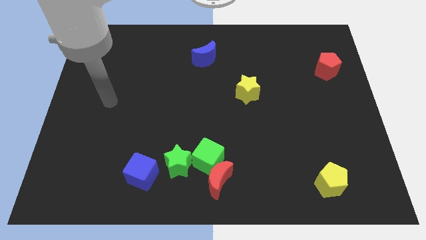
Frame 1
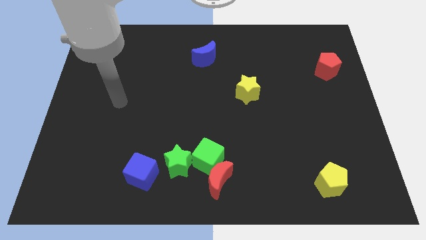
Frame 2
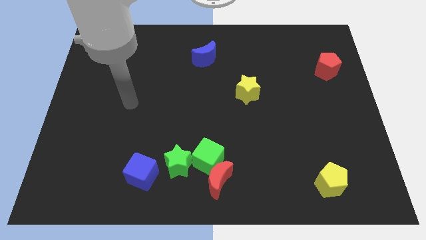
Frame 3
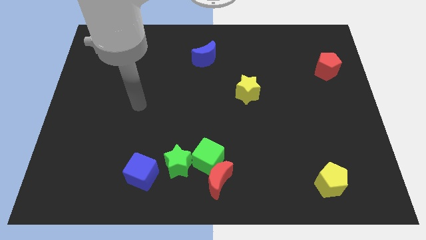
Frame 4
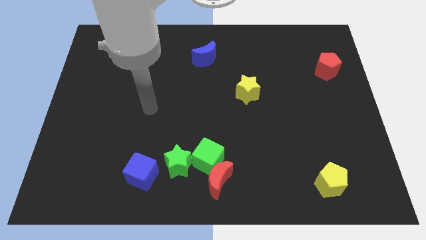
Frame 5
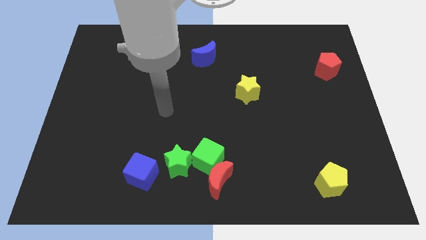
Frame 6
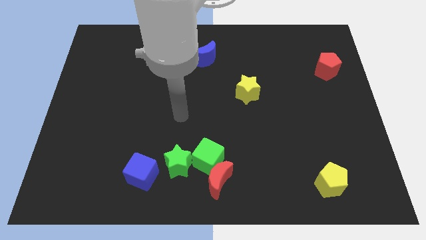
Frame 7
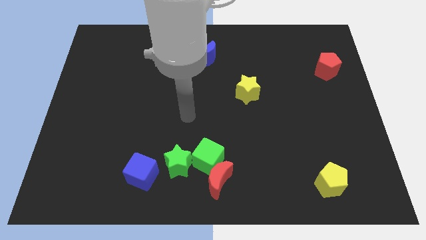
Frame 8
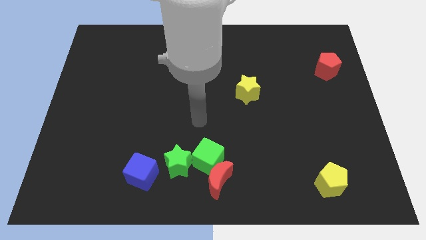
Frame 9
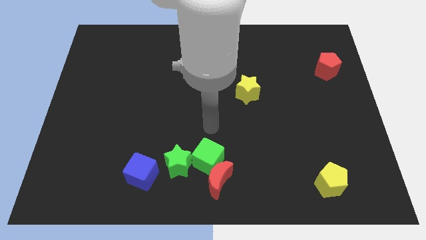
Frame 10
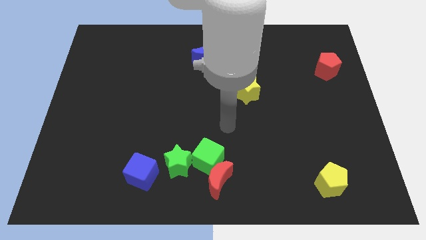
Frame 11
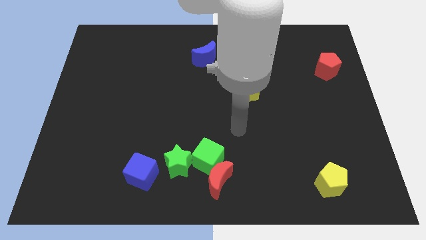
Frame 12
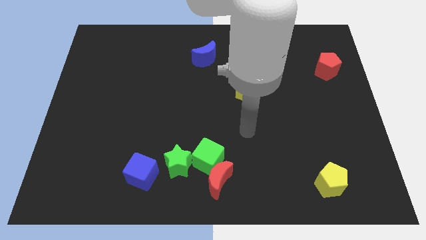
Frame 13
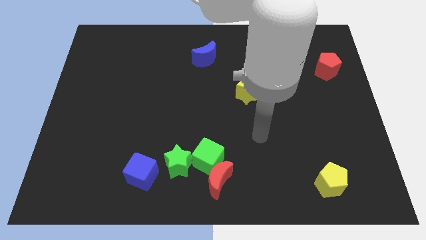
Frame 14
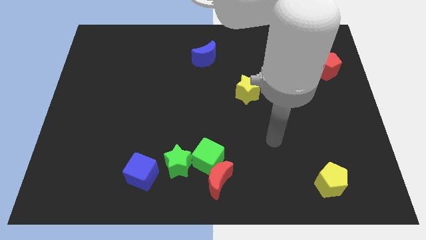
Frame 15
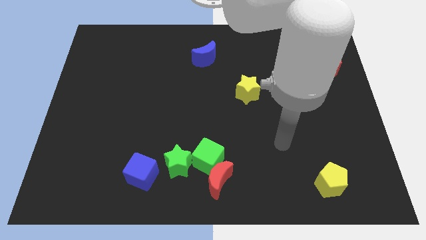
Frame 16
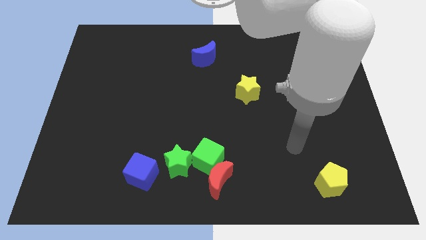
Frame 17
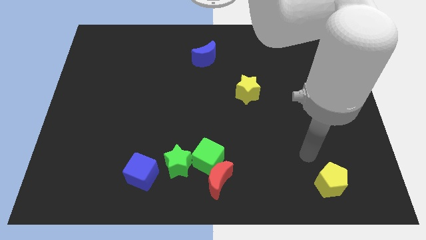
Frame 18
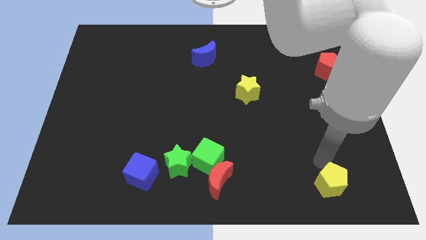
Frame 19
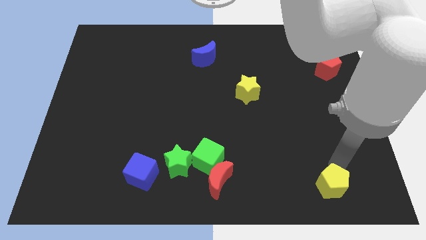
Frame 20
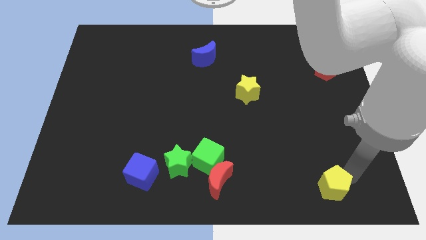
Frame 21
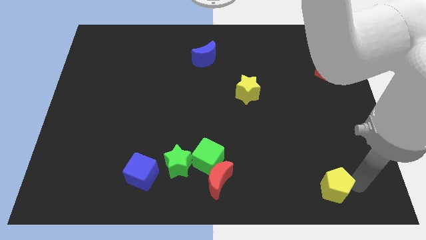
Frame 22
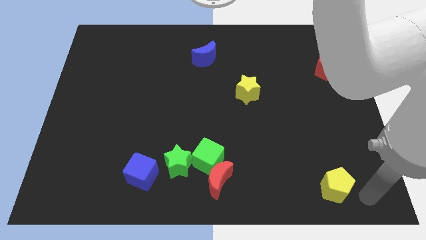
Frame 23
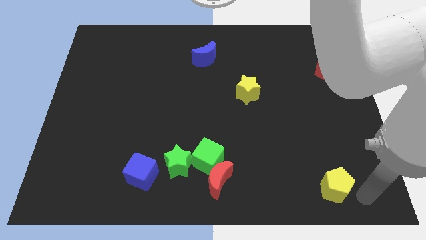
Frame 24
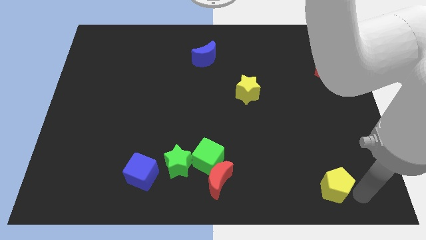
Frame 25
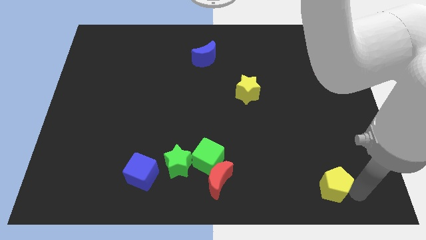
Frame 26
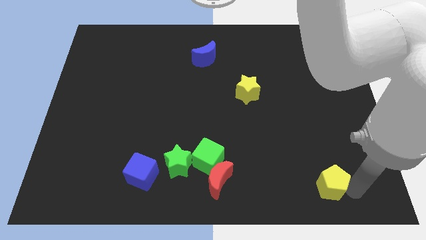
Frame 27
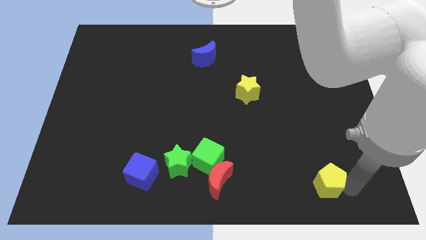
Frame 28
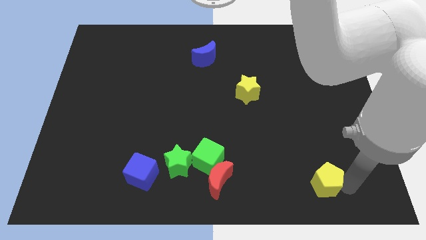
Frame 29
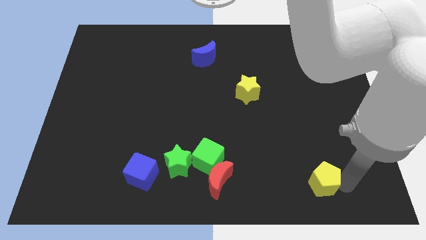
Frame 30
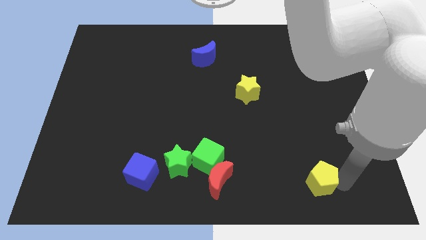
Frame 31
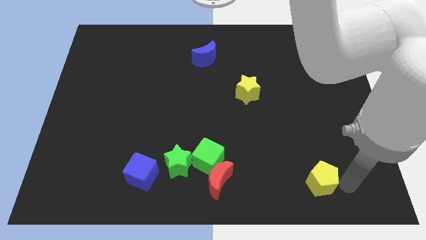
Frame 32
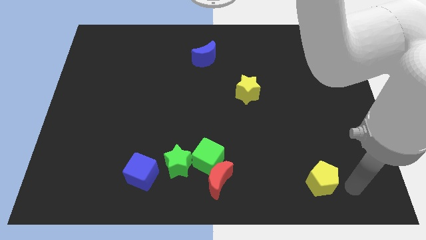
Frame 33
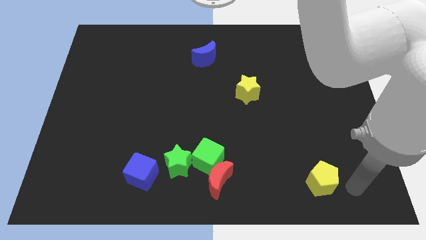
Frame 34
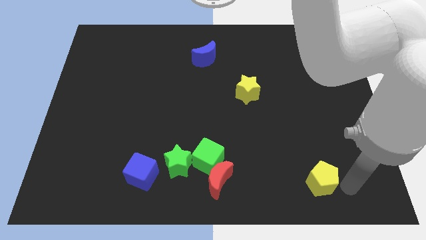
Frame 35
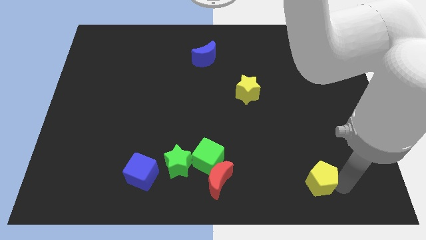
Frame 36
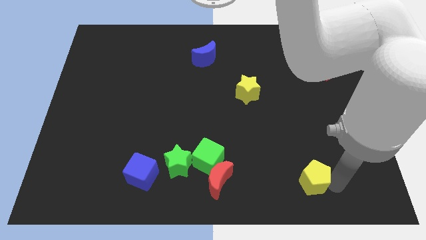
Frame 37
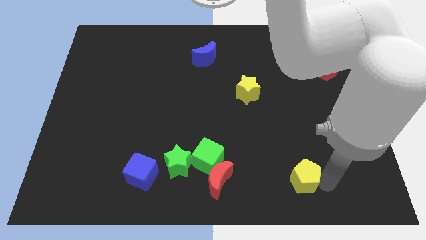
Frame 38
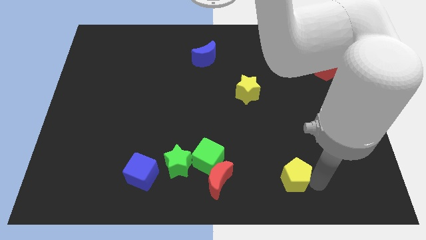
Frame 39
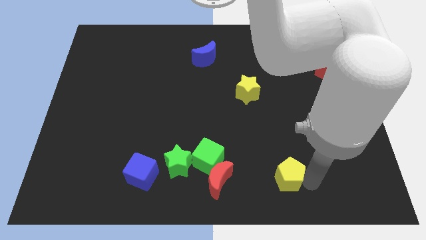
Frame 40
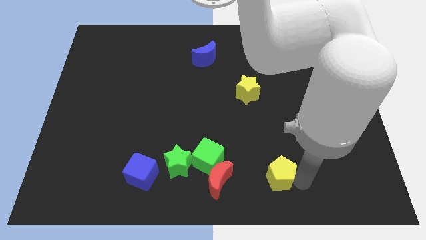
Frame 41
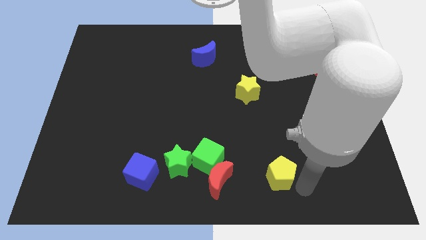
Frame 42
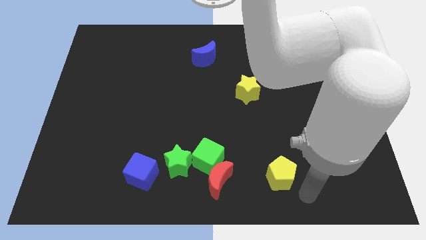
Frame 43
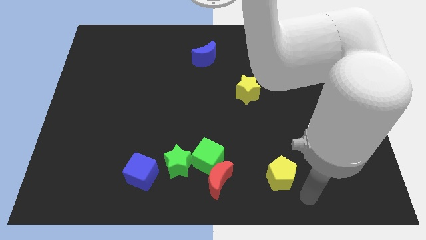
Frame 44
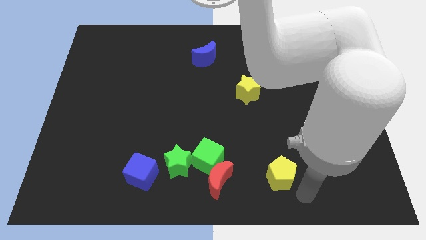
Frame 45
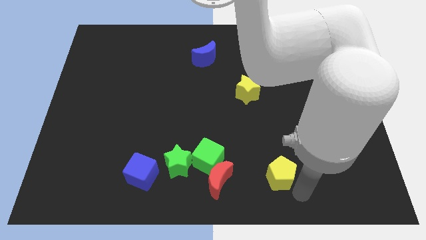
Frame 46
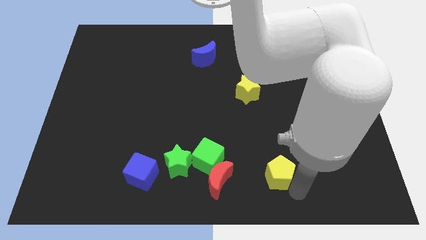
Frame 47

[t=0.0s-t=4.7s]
slide the yellow pentagon right of the green cube

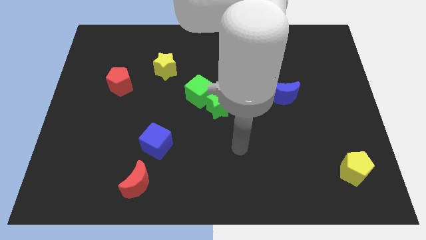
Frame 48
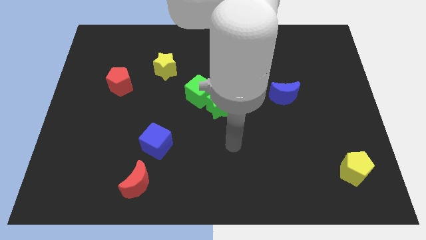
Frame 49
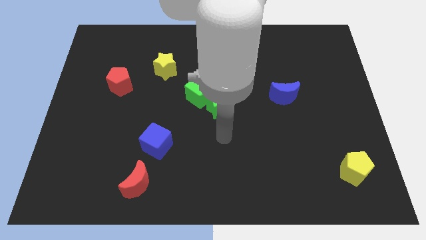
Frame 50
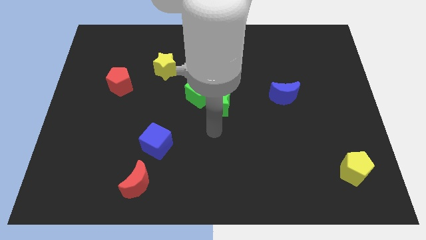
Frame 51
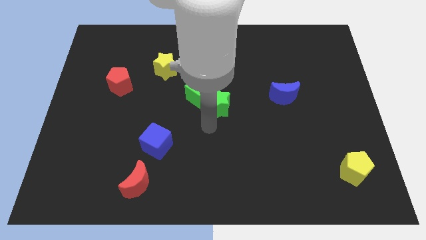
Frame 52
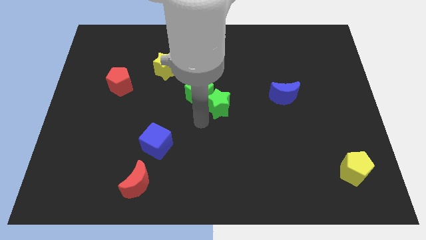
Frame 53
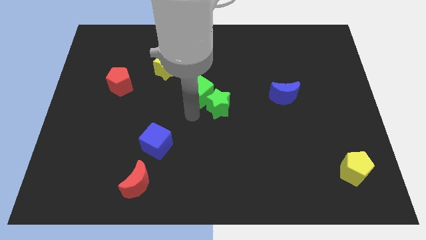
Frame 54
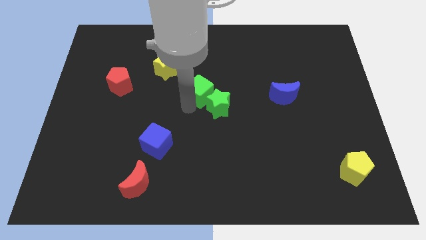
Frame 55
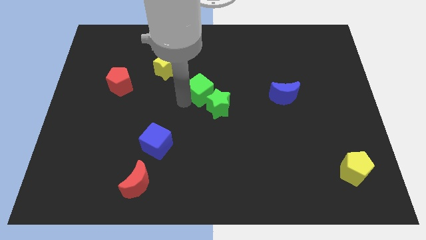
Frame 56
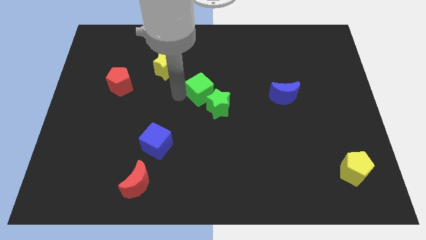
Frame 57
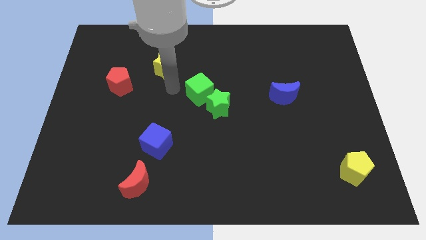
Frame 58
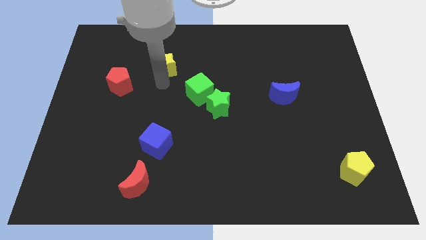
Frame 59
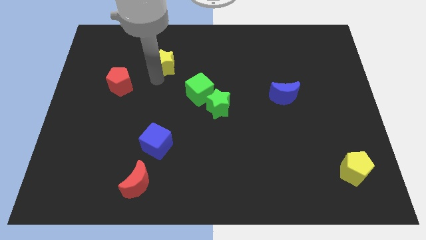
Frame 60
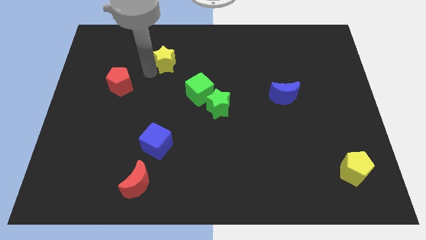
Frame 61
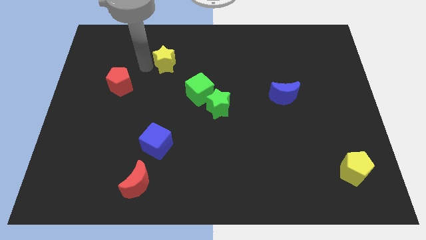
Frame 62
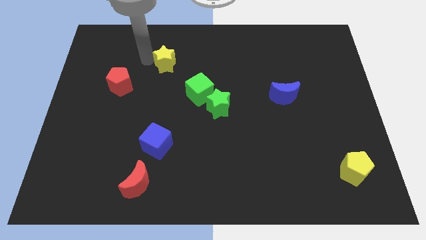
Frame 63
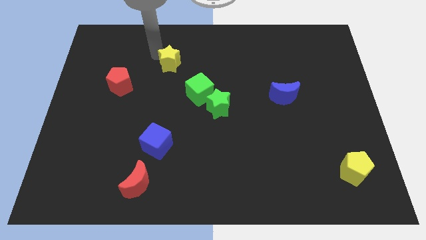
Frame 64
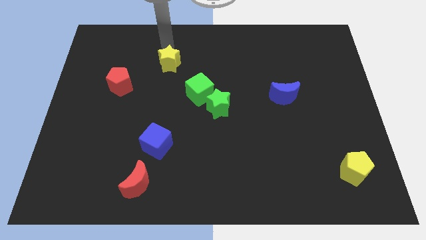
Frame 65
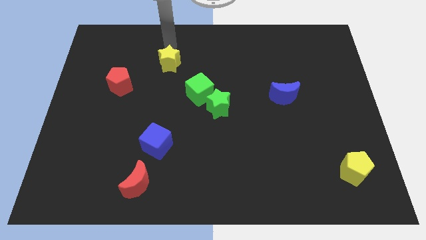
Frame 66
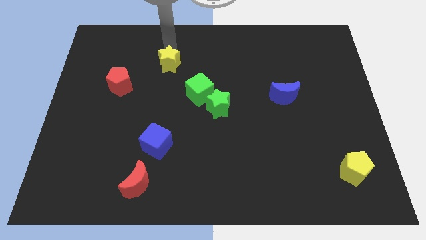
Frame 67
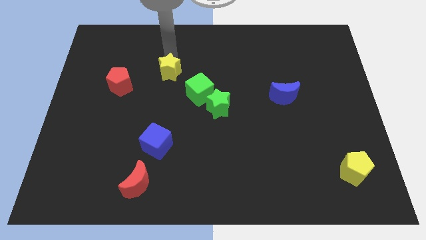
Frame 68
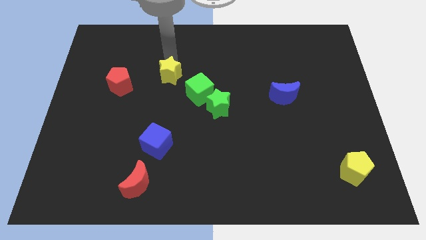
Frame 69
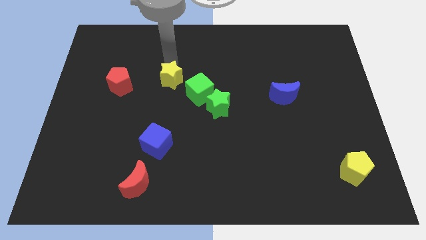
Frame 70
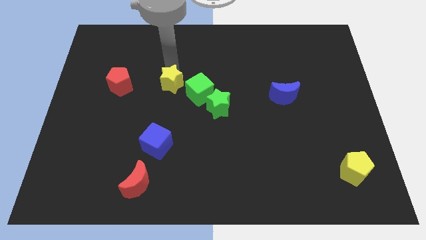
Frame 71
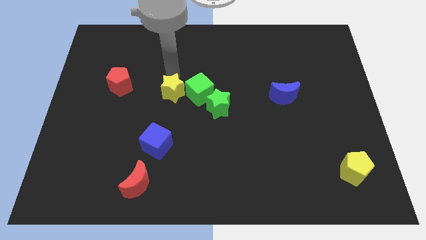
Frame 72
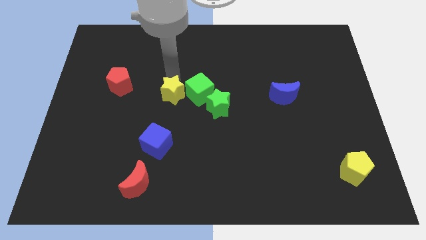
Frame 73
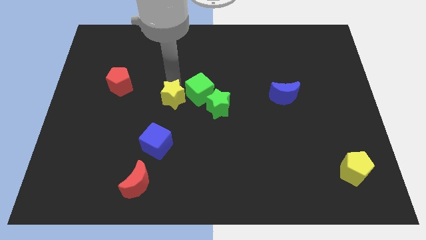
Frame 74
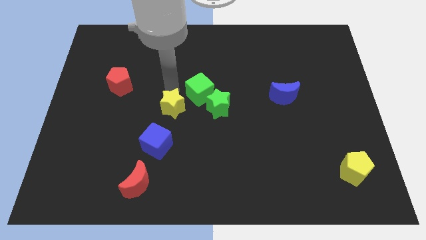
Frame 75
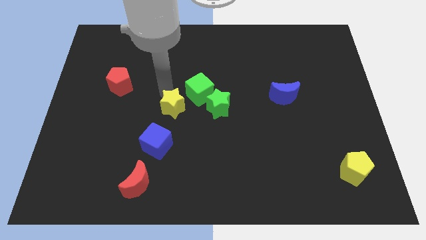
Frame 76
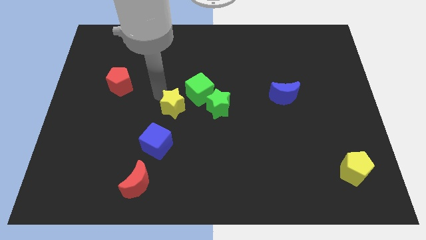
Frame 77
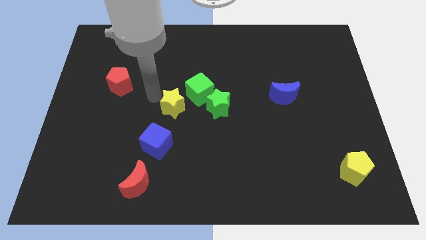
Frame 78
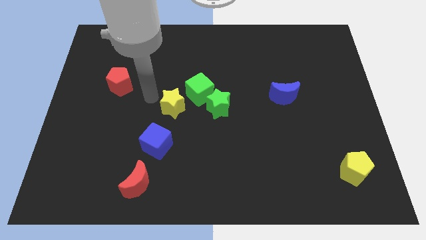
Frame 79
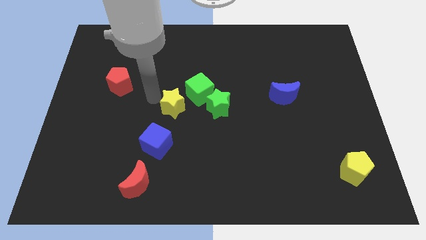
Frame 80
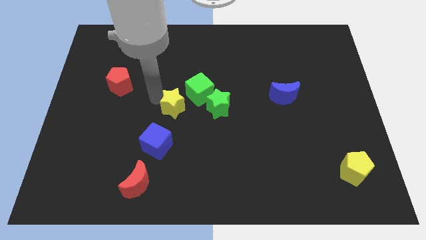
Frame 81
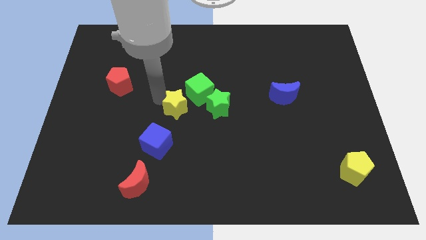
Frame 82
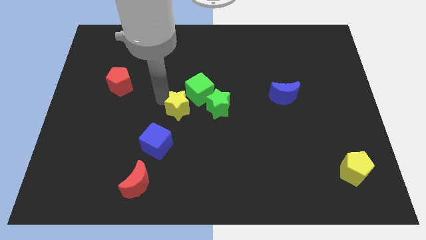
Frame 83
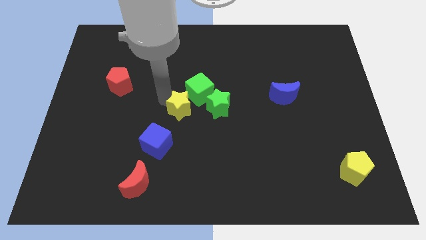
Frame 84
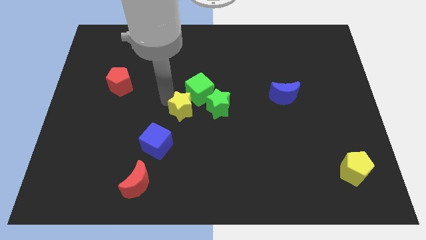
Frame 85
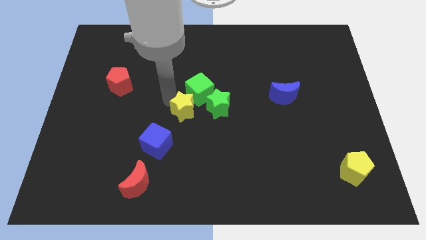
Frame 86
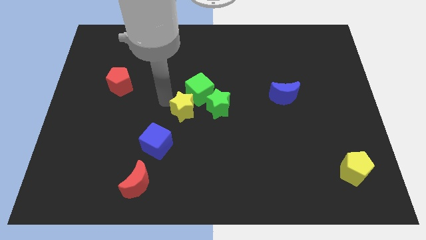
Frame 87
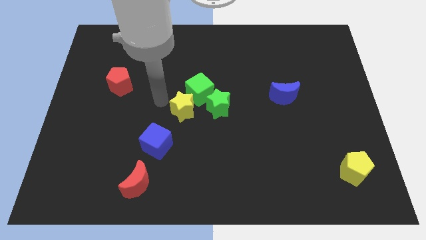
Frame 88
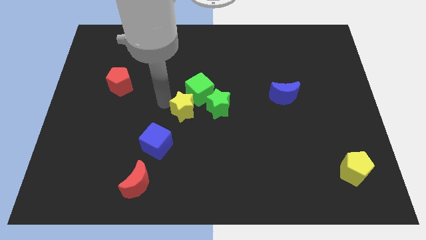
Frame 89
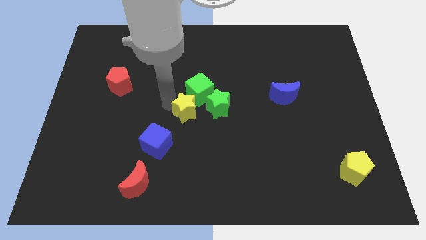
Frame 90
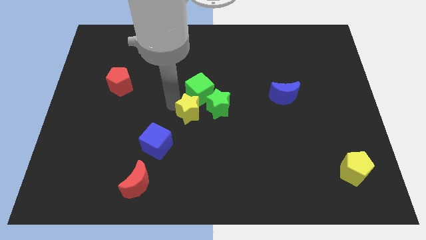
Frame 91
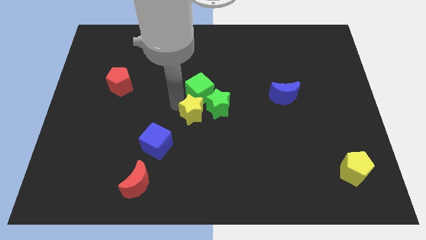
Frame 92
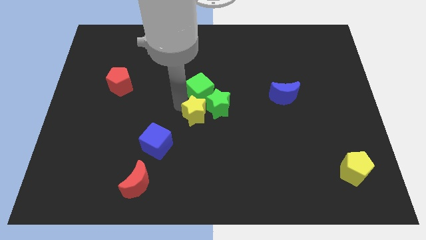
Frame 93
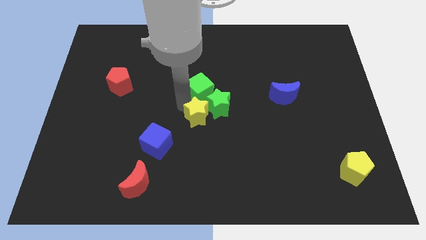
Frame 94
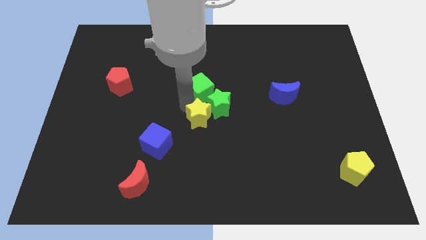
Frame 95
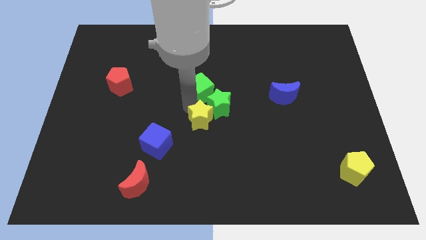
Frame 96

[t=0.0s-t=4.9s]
move the yellow star to the bottom of the green star
